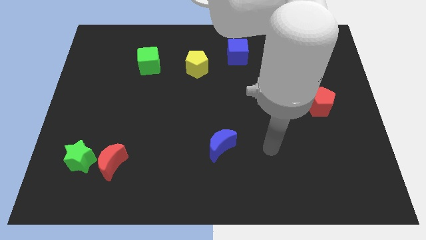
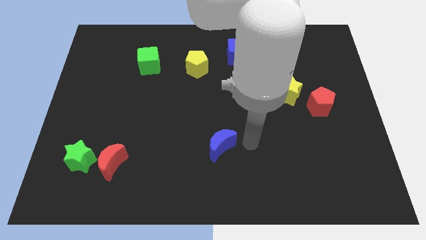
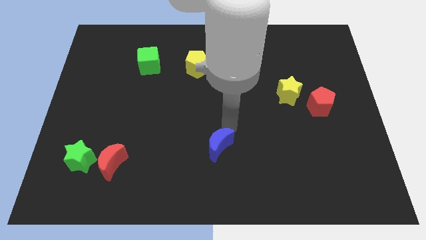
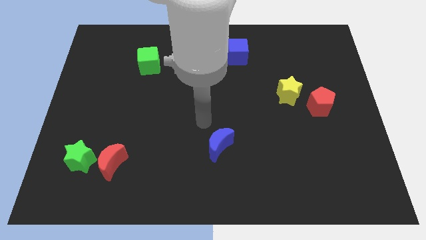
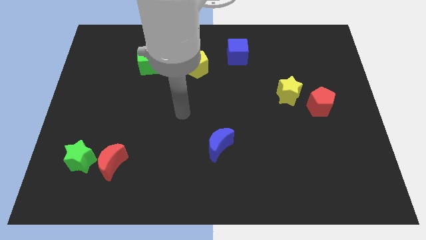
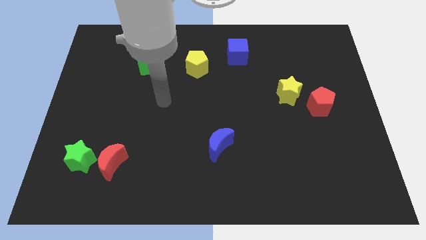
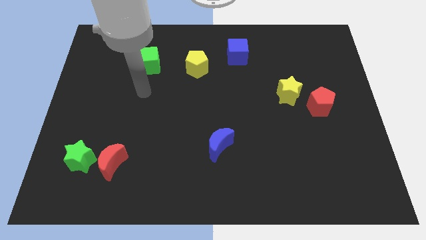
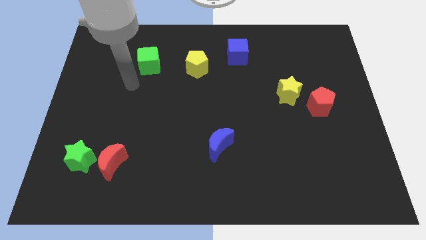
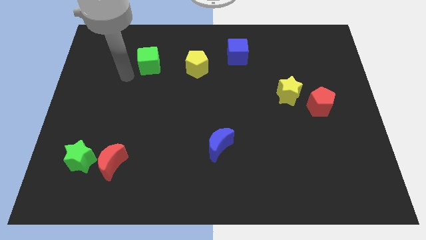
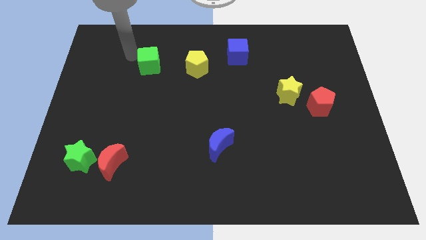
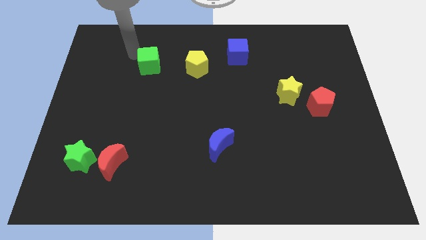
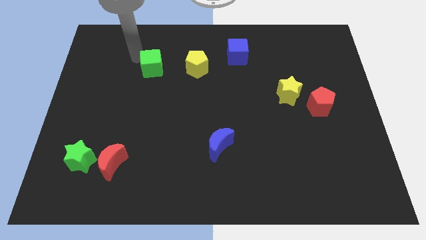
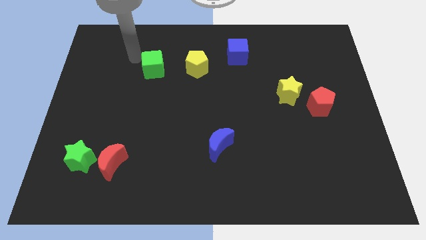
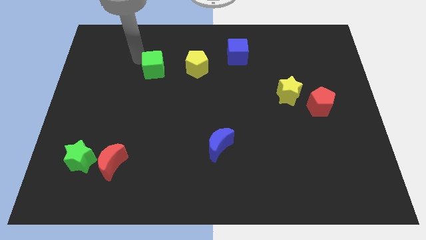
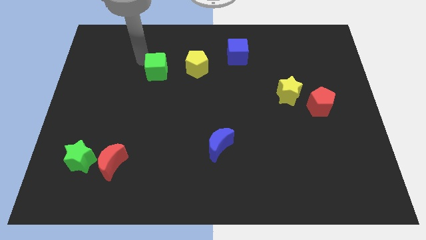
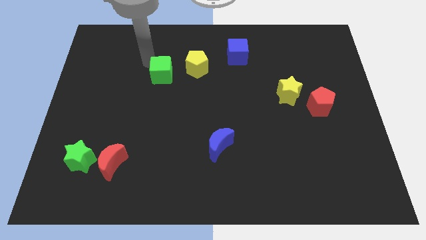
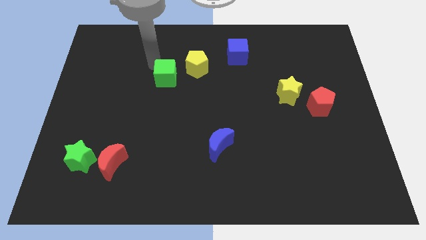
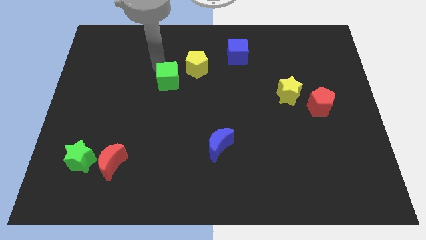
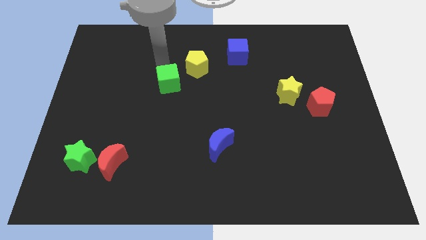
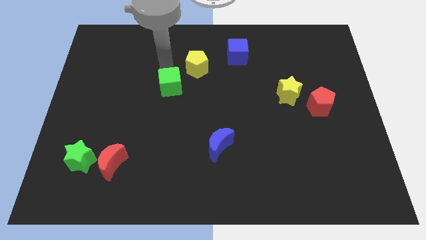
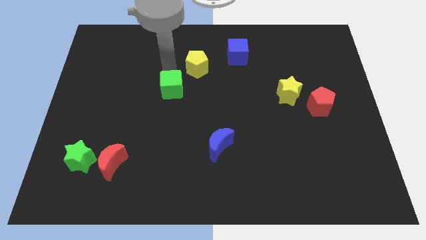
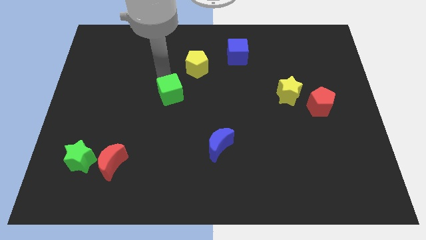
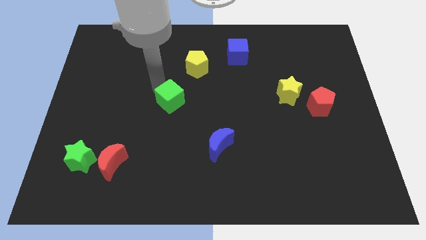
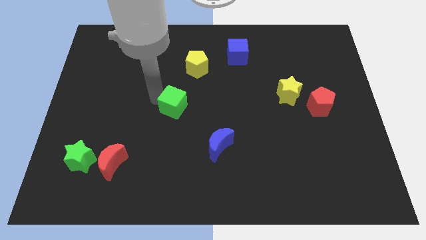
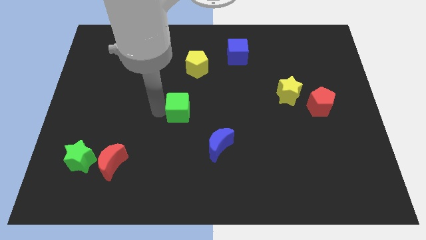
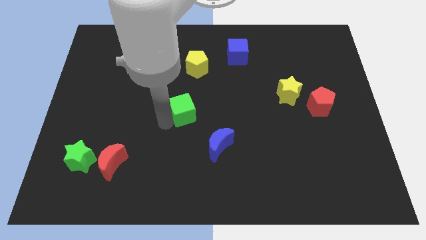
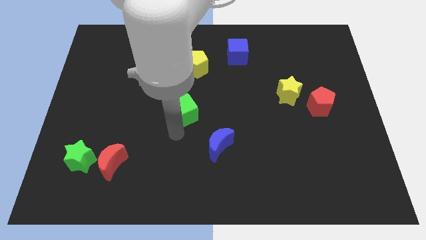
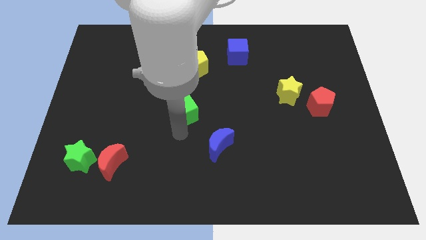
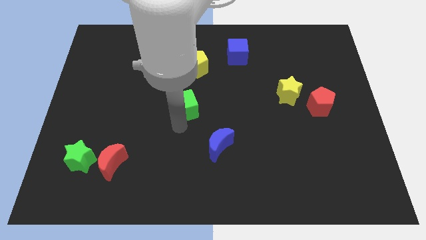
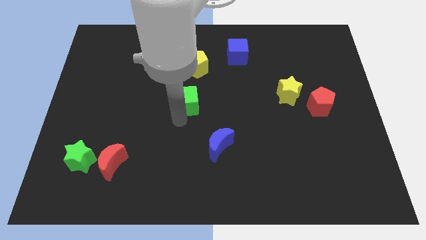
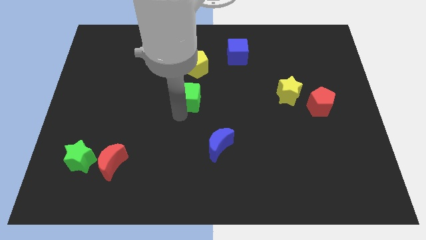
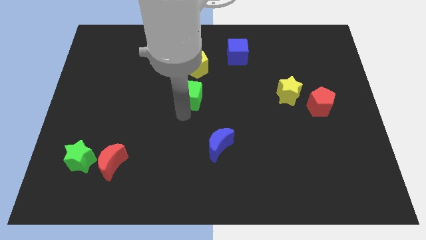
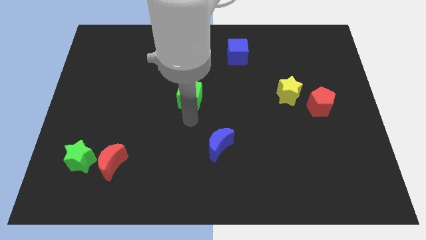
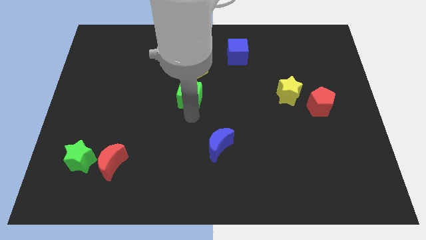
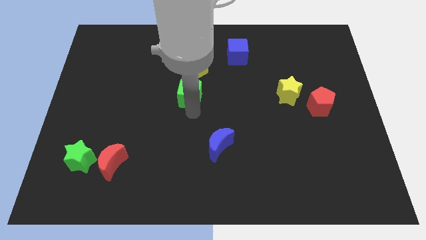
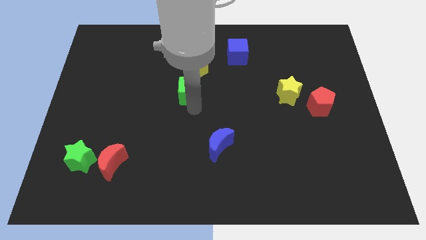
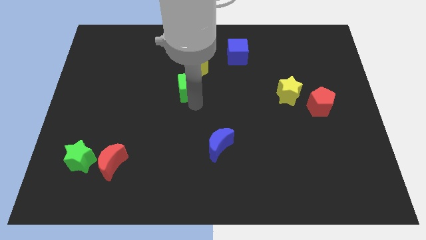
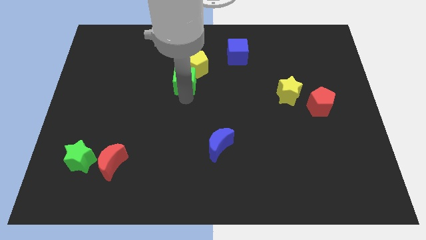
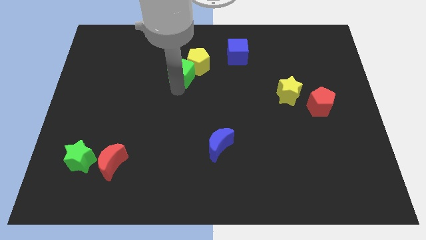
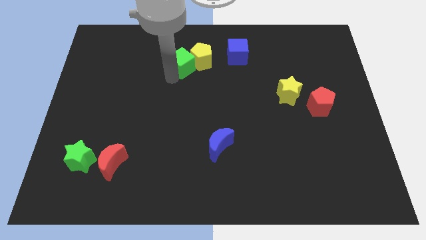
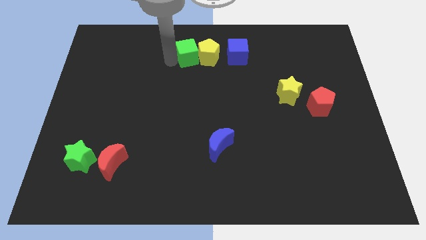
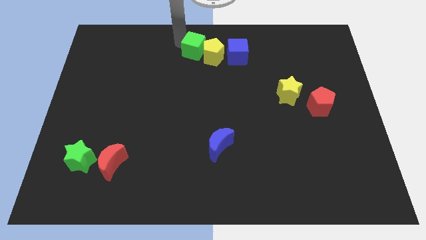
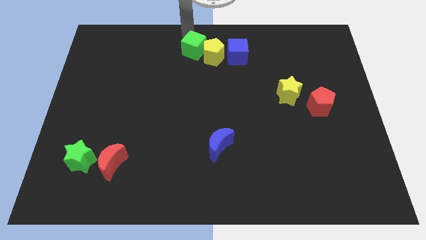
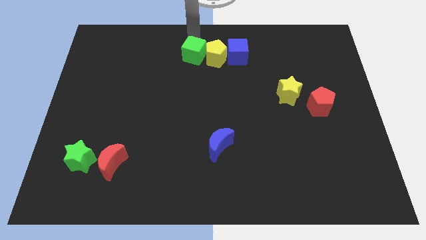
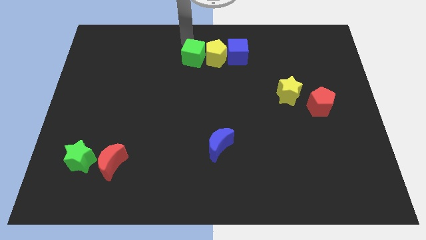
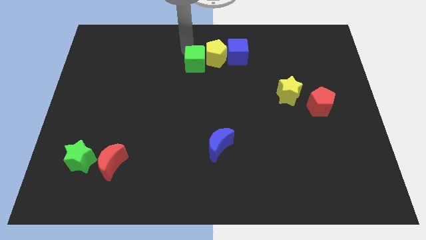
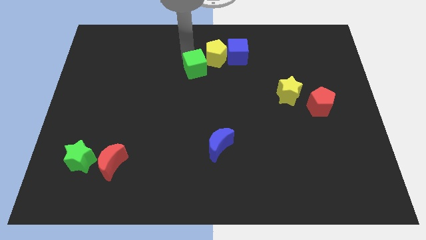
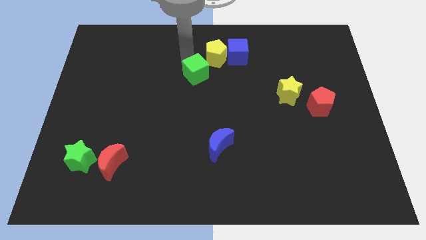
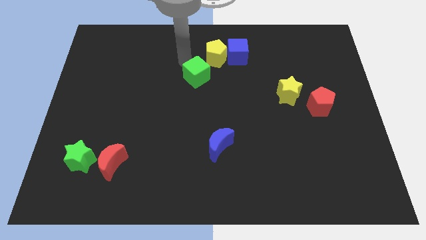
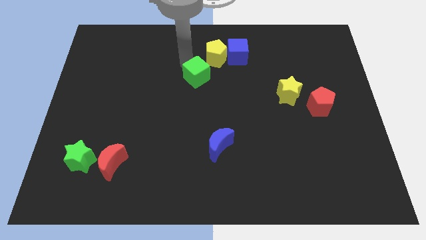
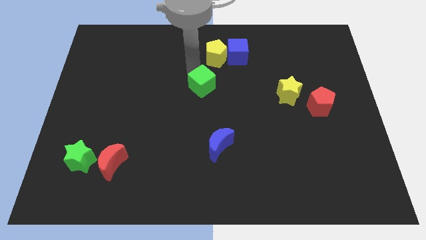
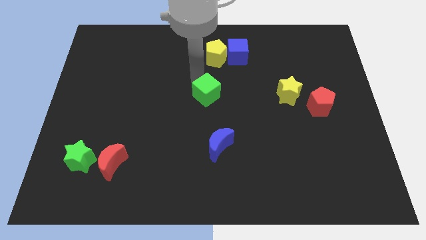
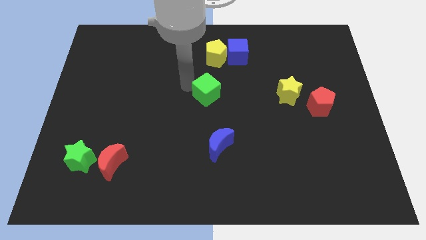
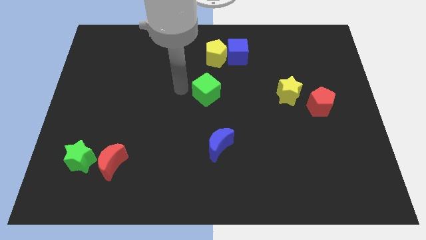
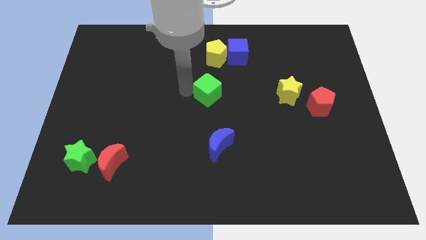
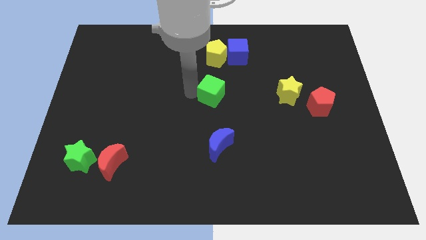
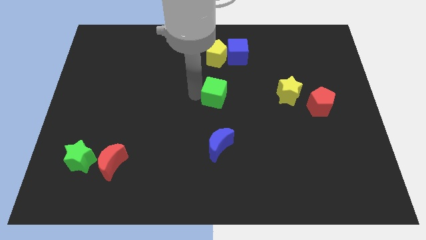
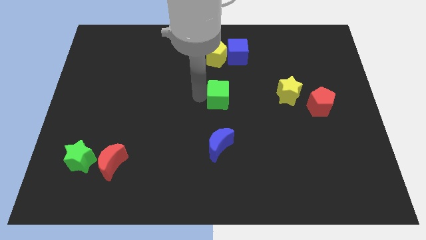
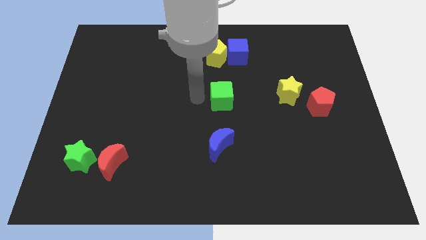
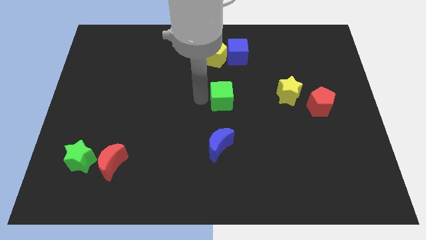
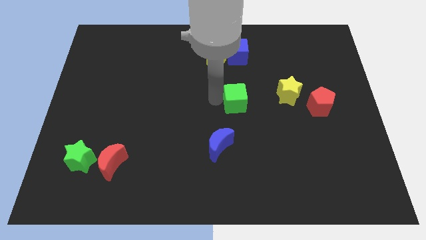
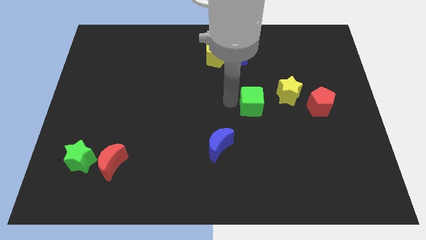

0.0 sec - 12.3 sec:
slide the green cube to the left of the red pentagon

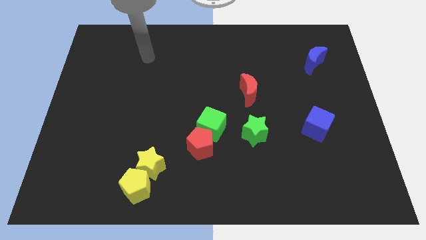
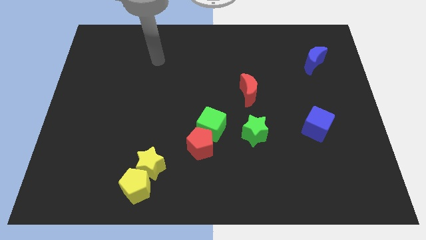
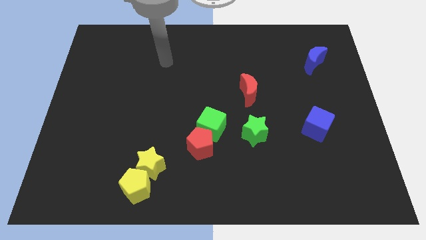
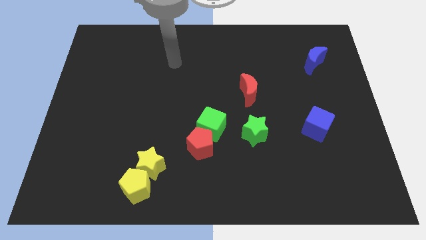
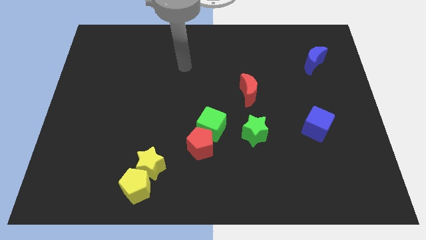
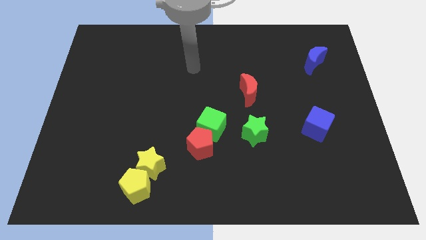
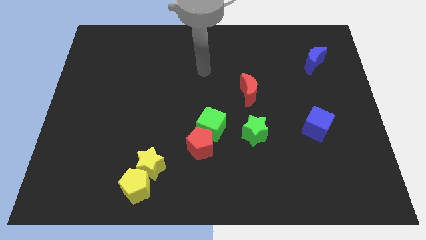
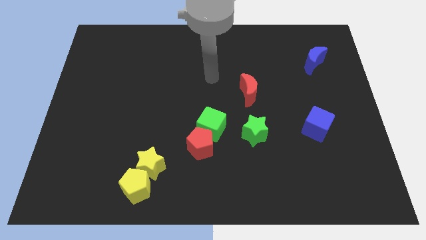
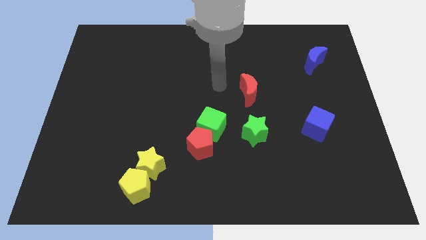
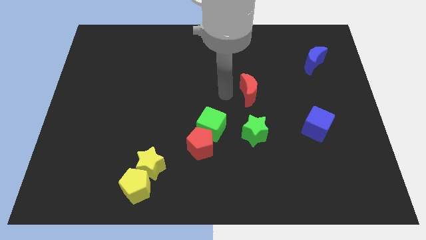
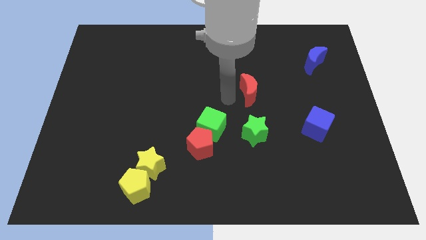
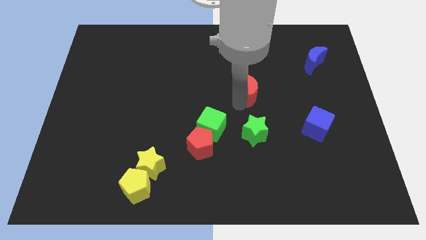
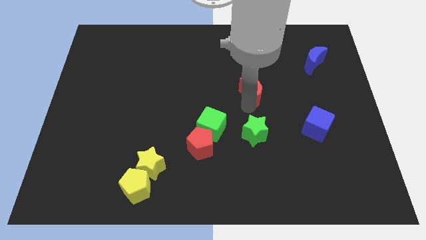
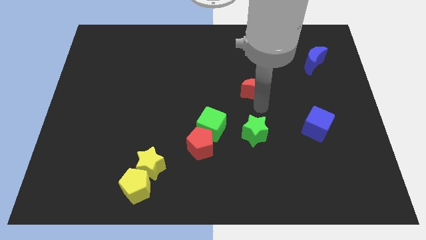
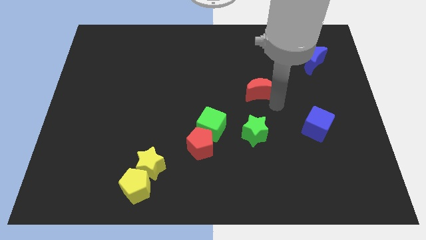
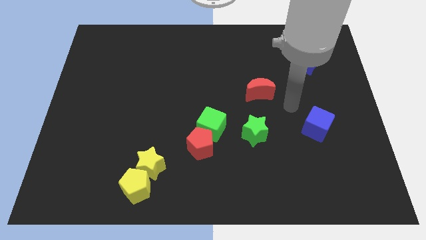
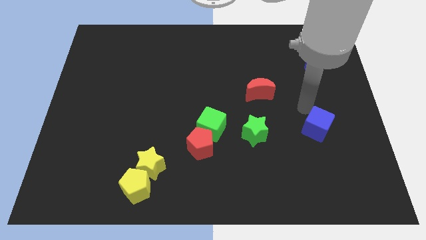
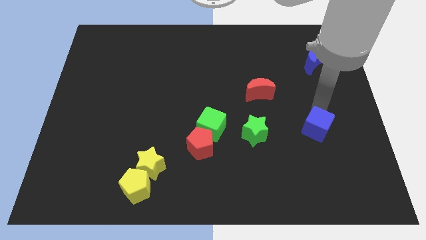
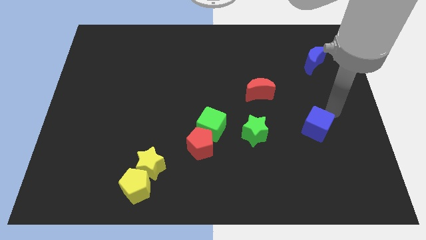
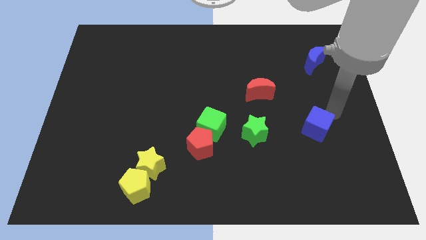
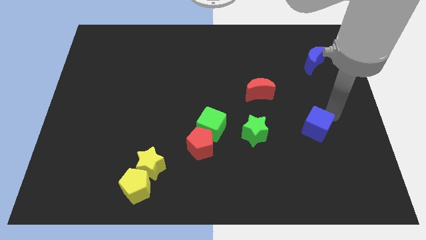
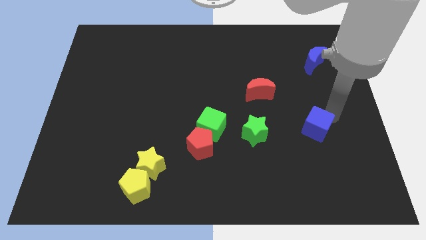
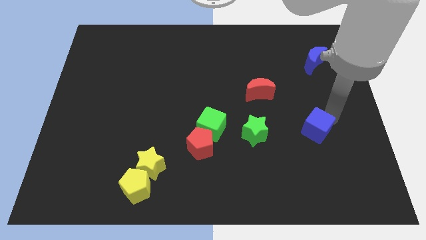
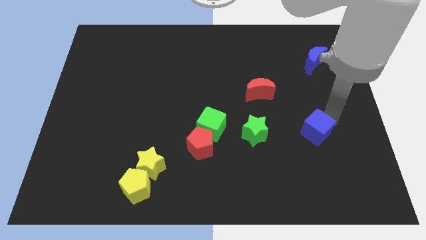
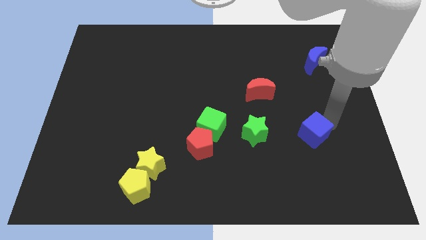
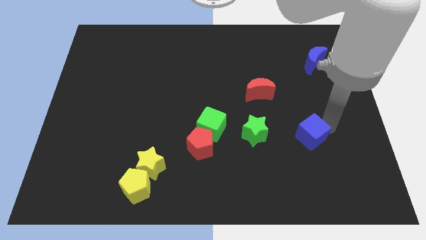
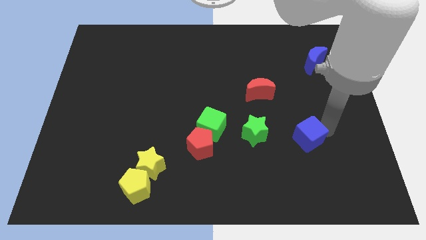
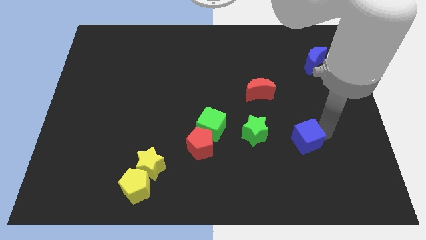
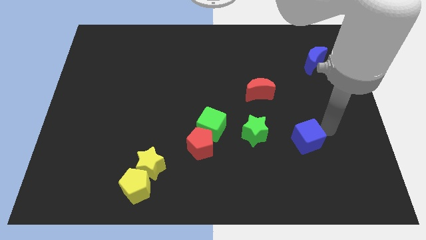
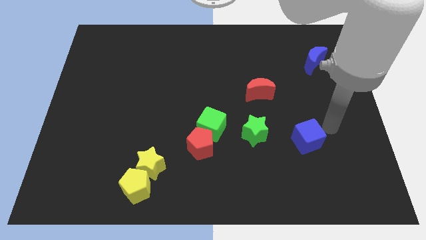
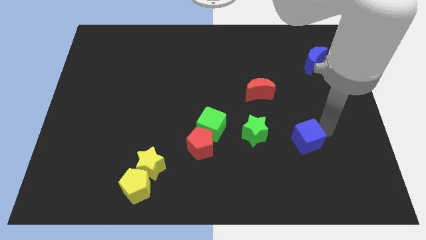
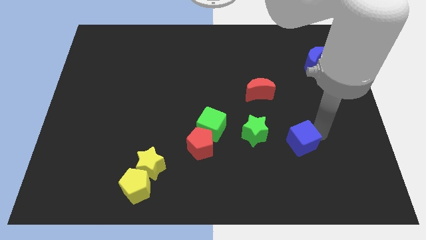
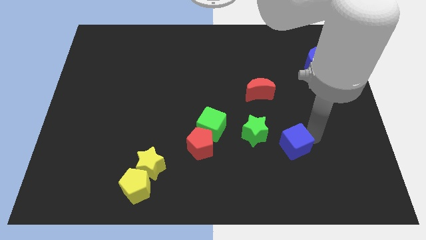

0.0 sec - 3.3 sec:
move the blue cube to the bottom right side of the green star
